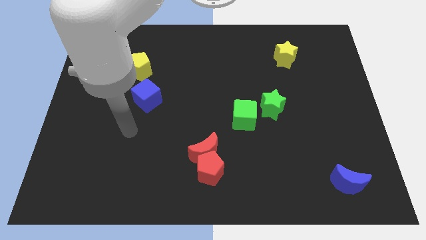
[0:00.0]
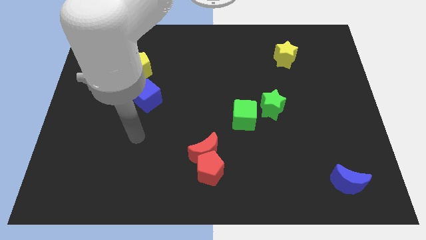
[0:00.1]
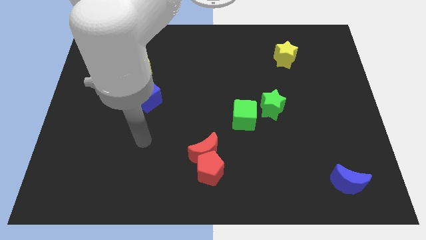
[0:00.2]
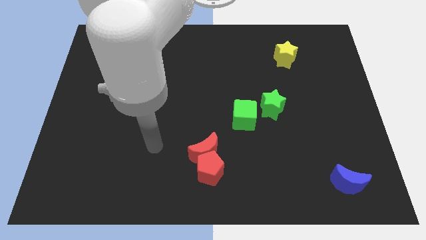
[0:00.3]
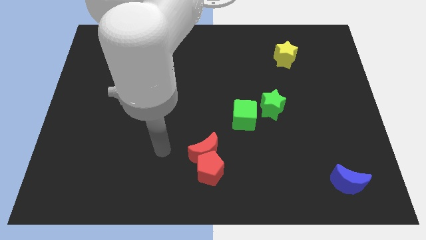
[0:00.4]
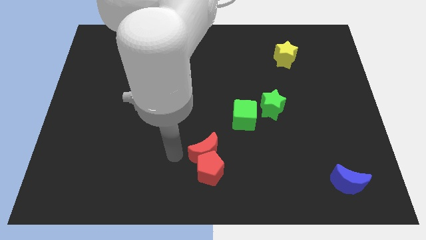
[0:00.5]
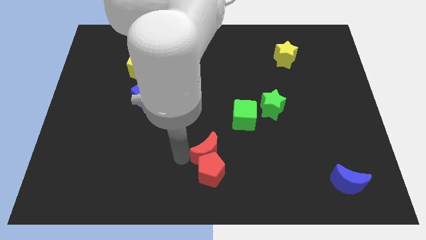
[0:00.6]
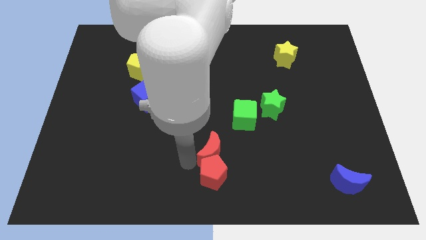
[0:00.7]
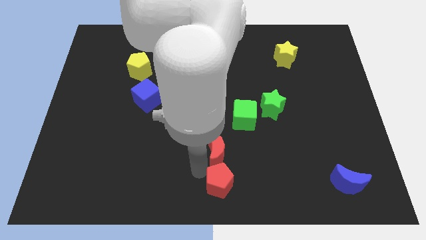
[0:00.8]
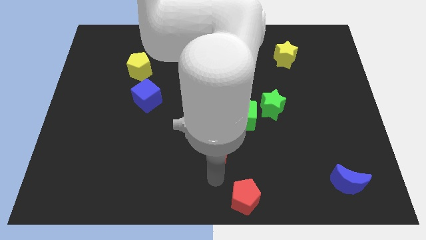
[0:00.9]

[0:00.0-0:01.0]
separate the red moon from the red pentagon

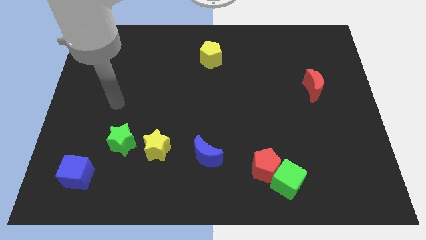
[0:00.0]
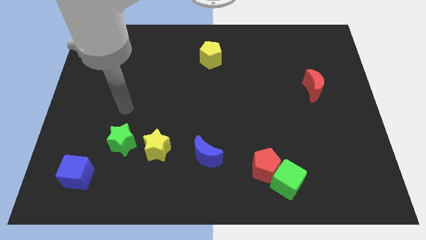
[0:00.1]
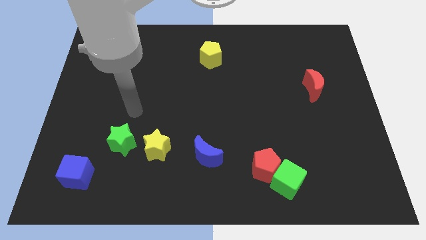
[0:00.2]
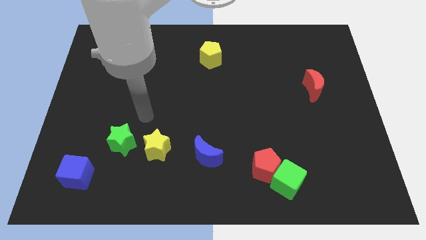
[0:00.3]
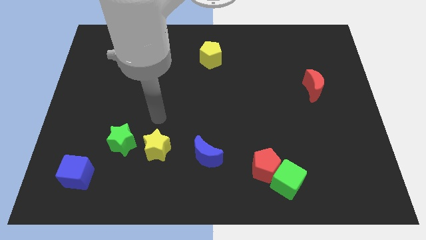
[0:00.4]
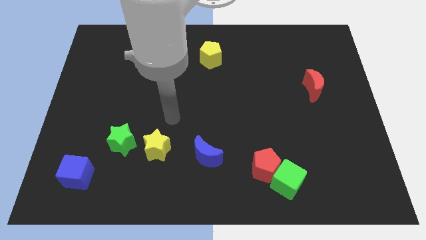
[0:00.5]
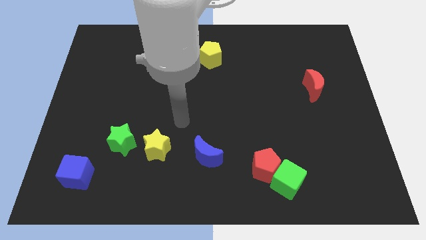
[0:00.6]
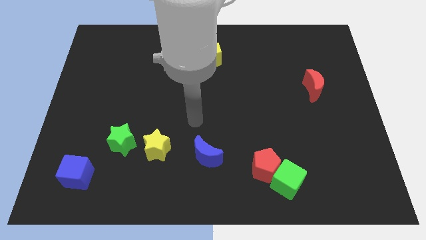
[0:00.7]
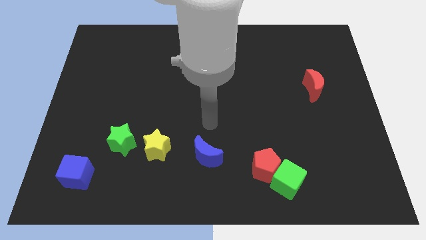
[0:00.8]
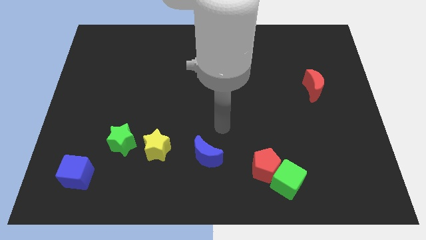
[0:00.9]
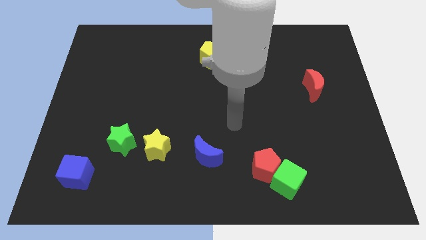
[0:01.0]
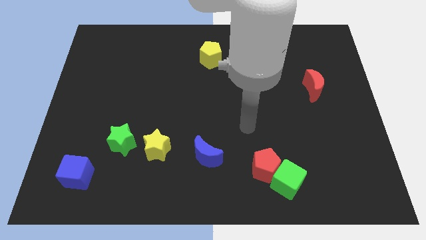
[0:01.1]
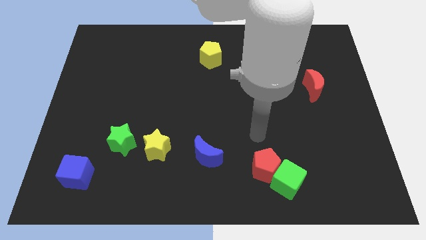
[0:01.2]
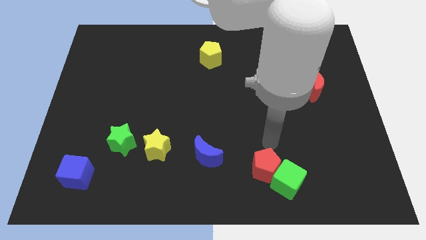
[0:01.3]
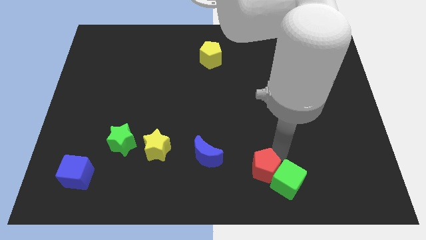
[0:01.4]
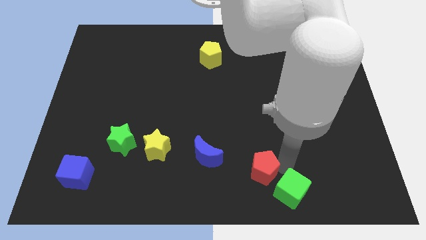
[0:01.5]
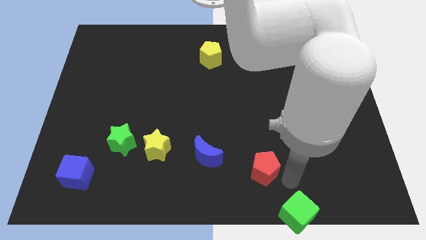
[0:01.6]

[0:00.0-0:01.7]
separate the red pentagon from the green cube

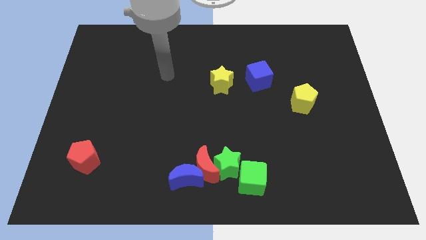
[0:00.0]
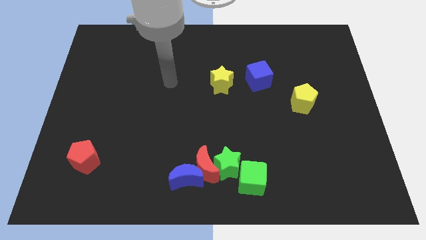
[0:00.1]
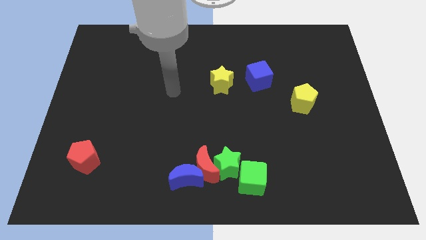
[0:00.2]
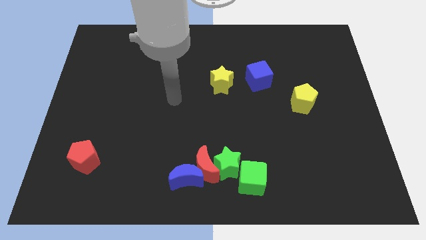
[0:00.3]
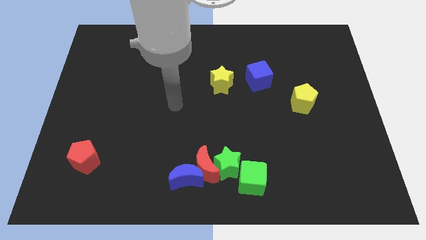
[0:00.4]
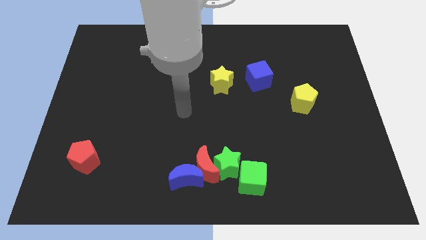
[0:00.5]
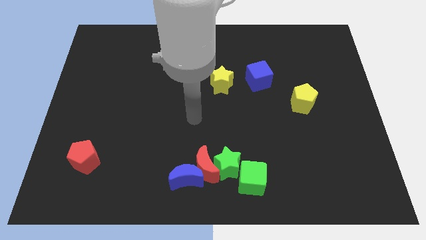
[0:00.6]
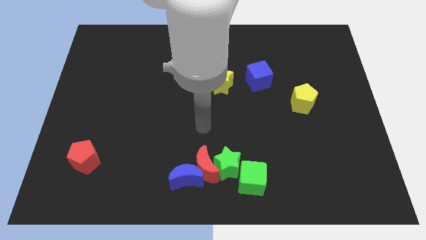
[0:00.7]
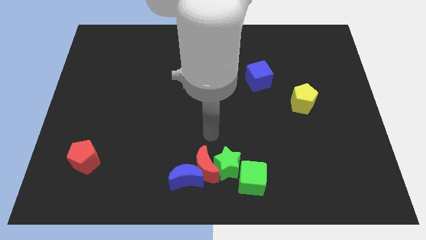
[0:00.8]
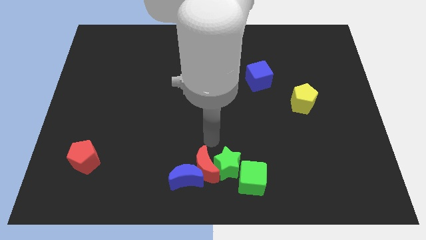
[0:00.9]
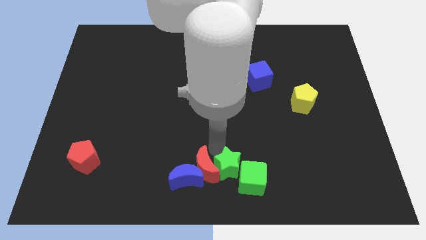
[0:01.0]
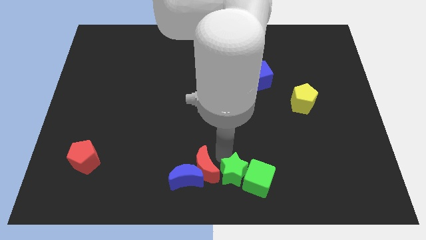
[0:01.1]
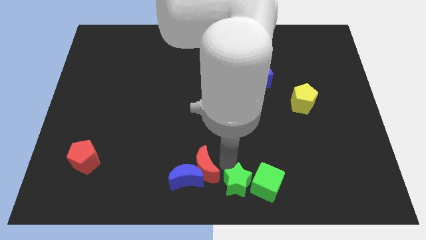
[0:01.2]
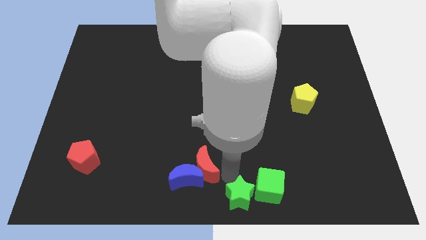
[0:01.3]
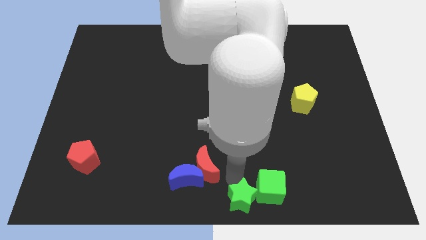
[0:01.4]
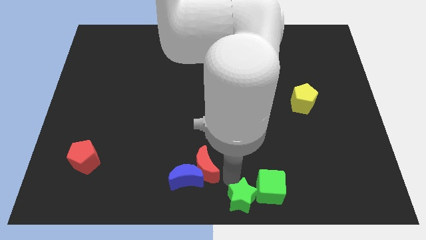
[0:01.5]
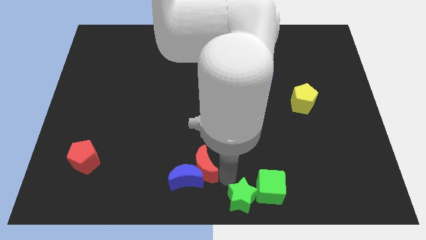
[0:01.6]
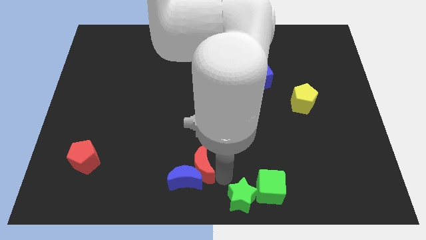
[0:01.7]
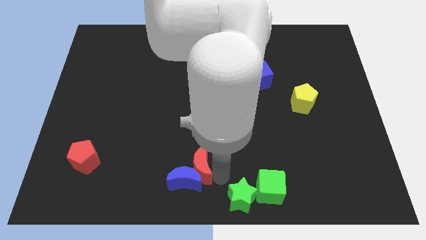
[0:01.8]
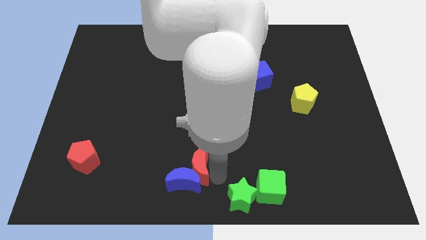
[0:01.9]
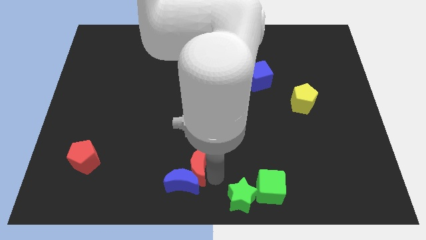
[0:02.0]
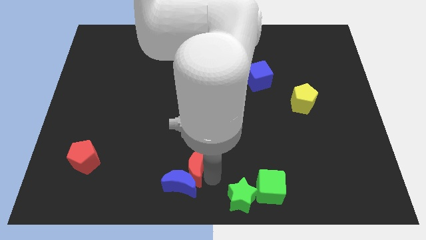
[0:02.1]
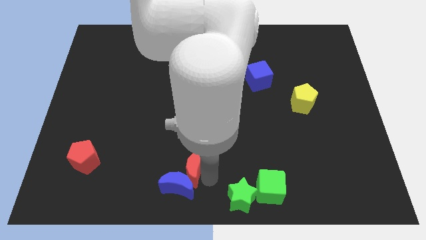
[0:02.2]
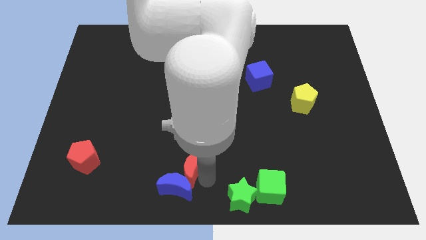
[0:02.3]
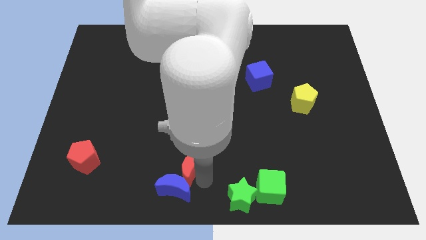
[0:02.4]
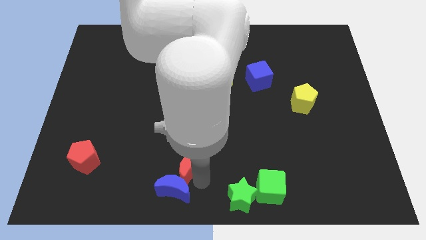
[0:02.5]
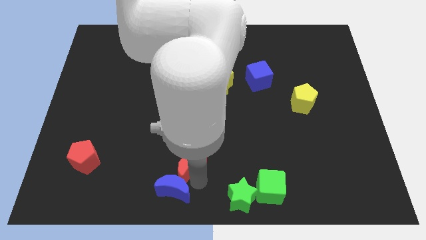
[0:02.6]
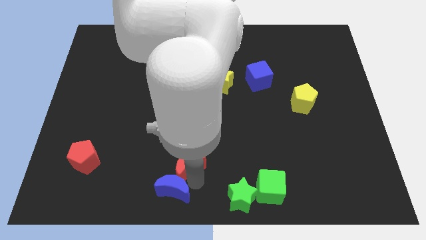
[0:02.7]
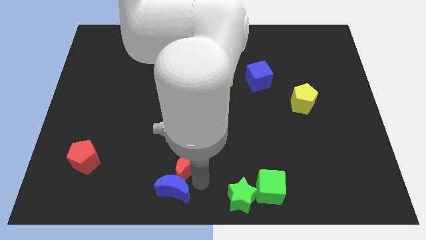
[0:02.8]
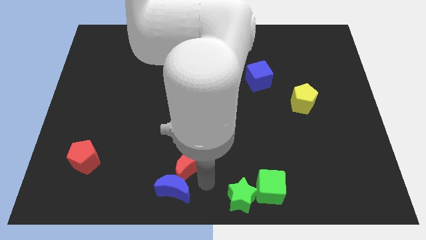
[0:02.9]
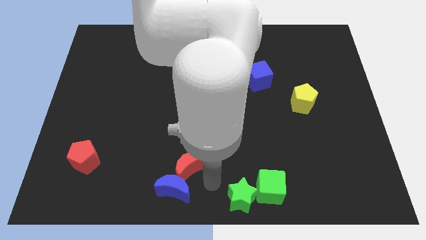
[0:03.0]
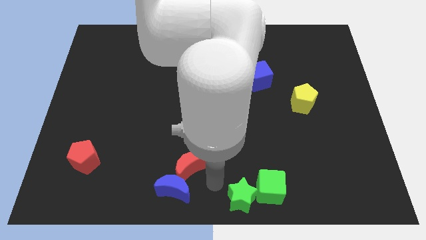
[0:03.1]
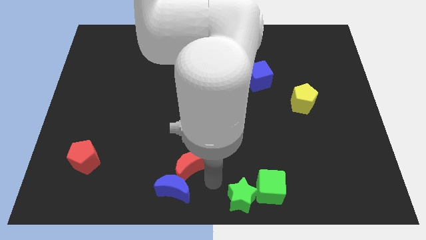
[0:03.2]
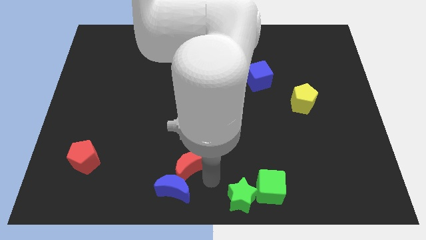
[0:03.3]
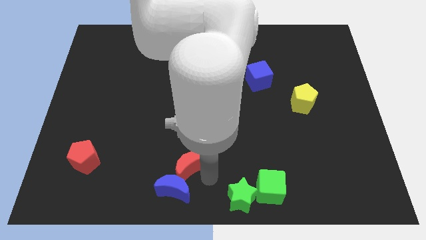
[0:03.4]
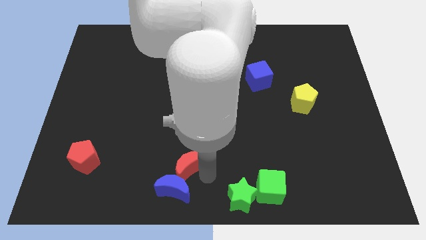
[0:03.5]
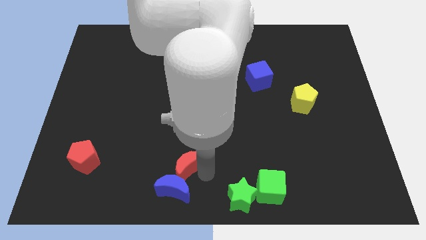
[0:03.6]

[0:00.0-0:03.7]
move the red moon away from the green star, blue moon, and green cube

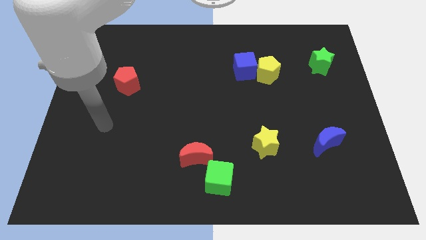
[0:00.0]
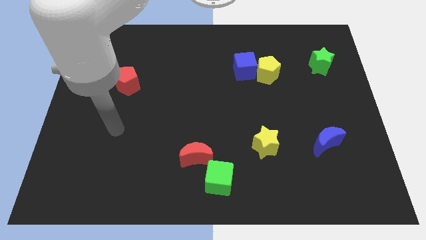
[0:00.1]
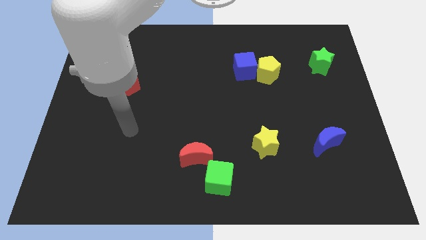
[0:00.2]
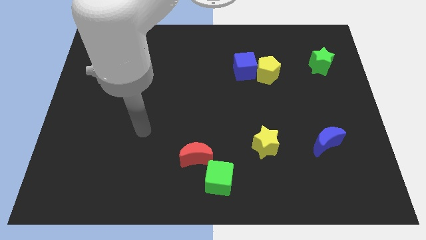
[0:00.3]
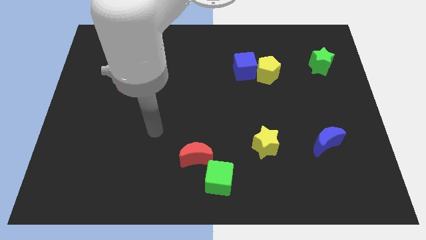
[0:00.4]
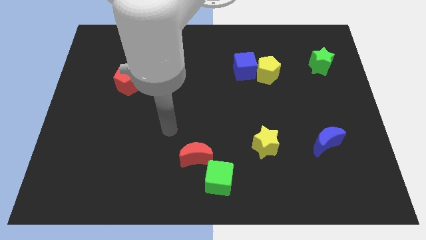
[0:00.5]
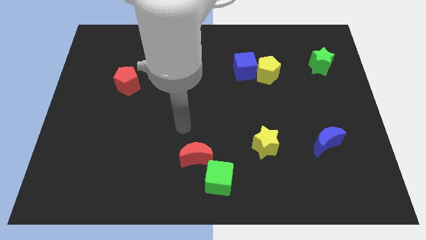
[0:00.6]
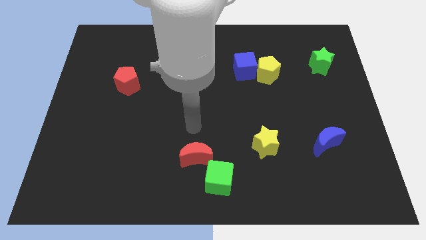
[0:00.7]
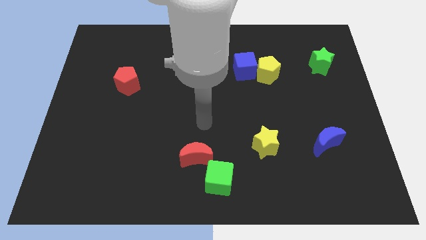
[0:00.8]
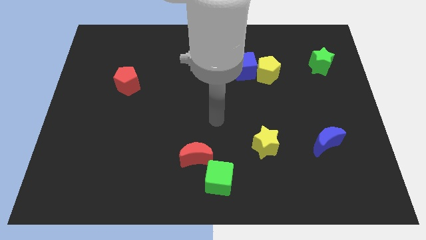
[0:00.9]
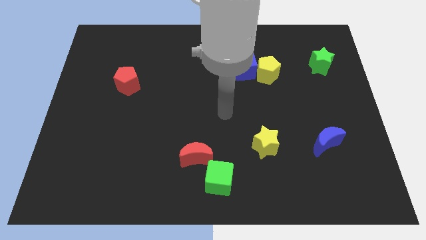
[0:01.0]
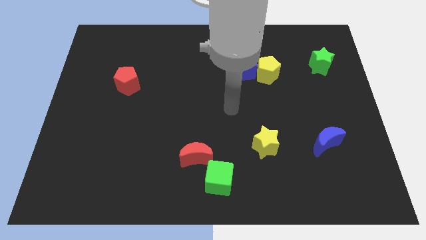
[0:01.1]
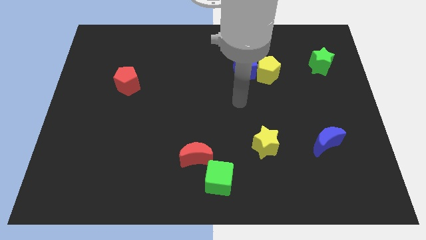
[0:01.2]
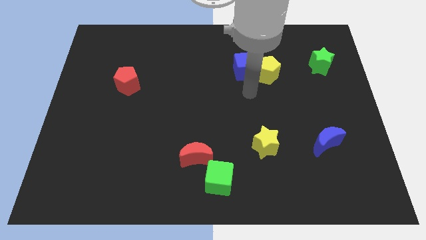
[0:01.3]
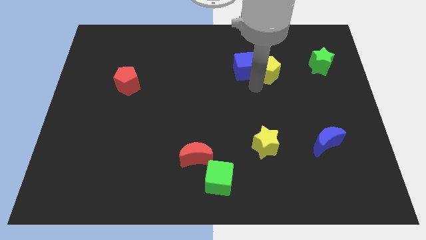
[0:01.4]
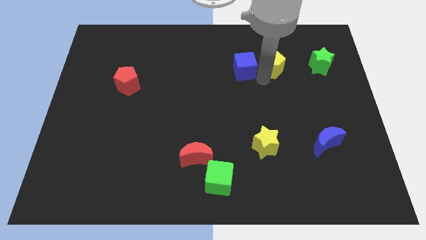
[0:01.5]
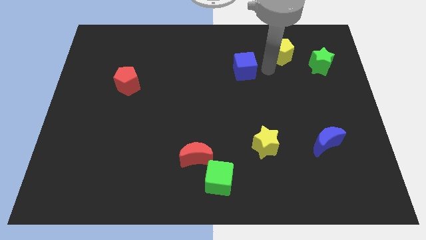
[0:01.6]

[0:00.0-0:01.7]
pull the blue cube apart from the yellow pentagon

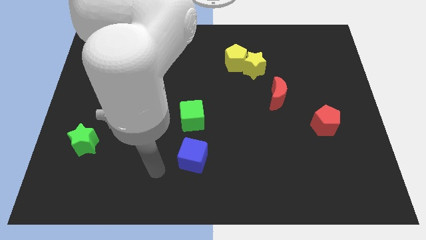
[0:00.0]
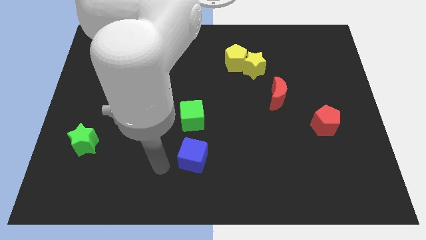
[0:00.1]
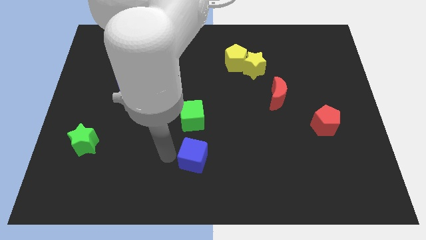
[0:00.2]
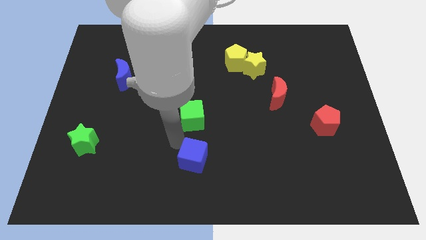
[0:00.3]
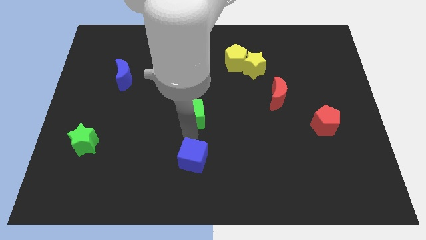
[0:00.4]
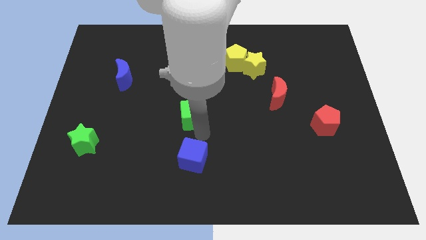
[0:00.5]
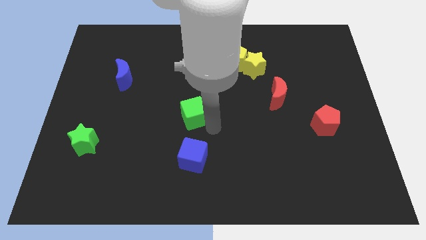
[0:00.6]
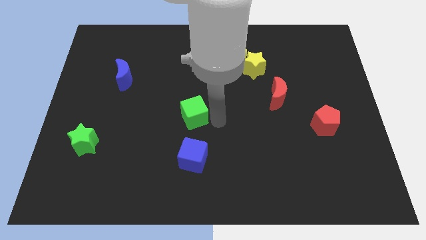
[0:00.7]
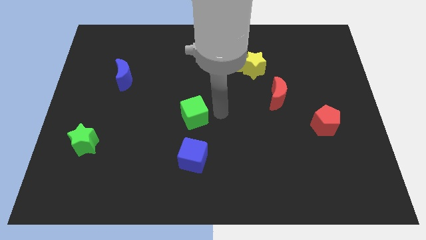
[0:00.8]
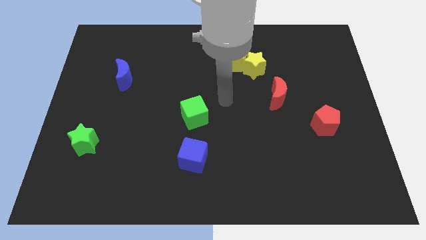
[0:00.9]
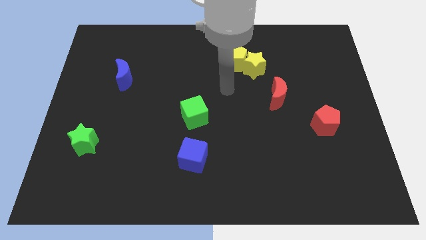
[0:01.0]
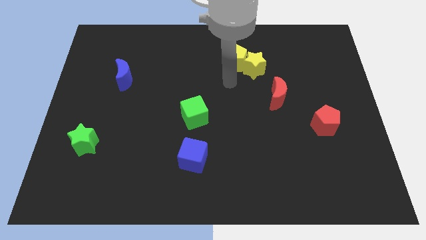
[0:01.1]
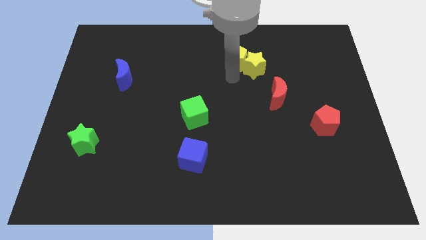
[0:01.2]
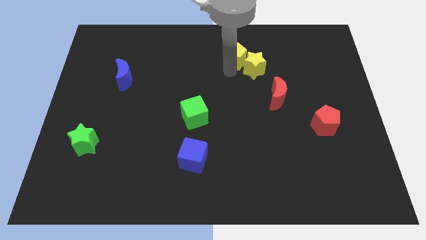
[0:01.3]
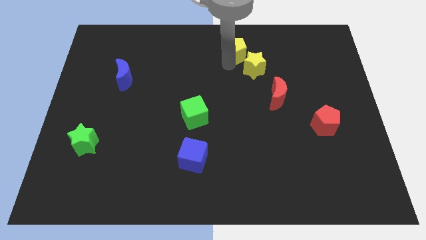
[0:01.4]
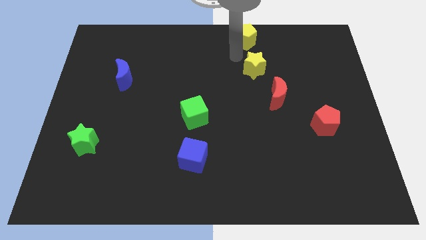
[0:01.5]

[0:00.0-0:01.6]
move the yellow star away from the yellow pentagon
